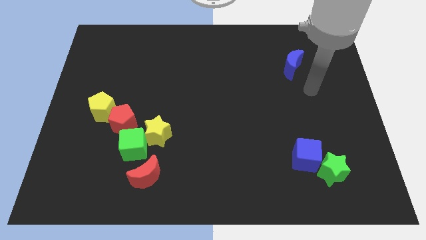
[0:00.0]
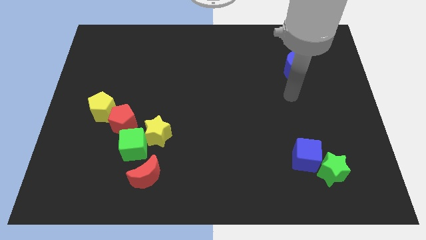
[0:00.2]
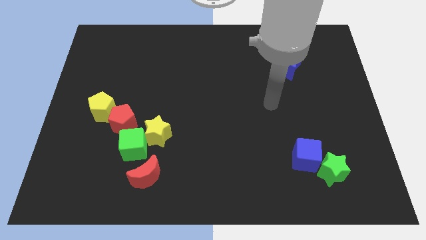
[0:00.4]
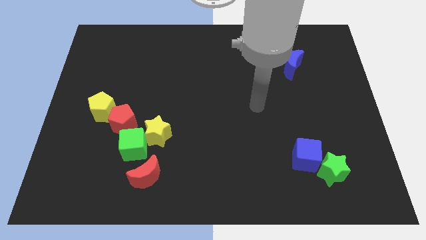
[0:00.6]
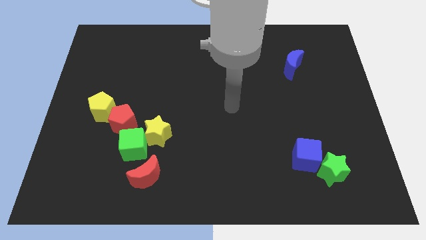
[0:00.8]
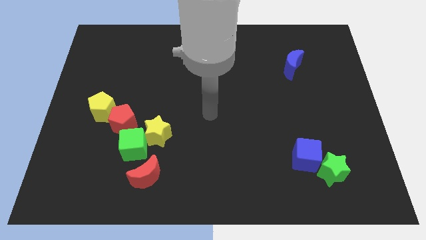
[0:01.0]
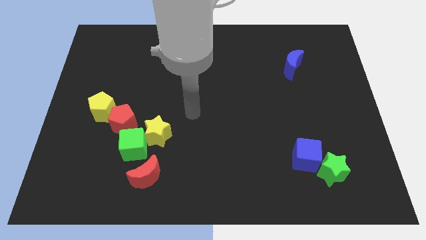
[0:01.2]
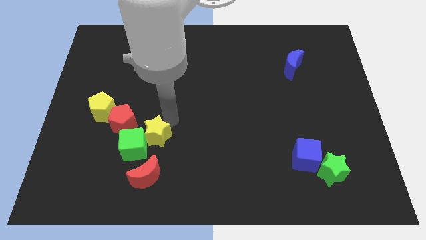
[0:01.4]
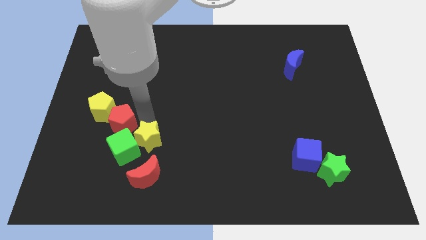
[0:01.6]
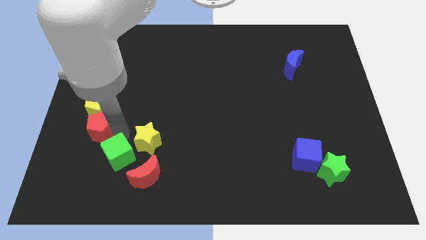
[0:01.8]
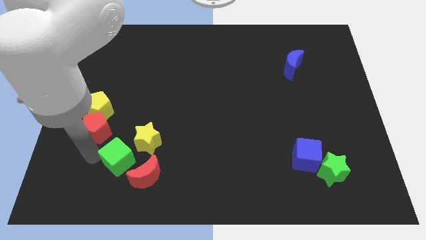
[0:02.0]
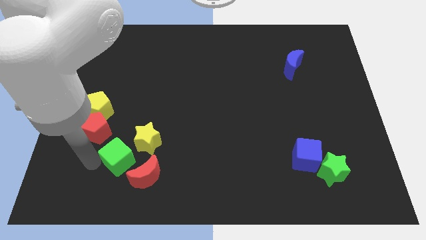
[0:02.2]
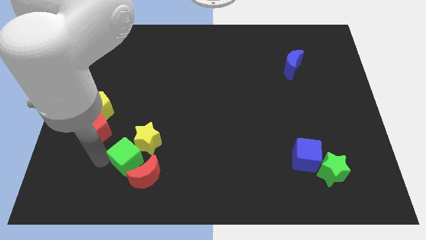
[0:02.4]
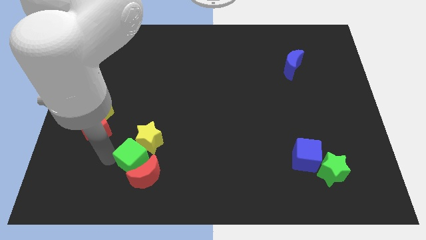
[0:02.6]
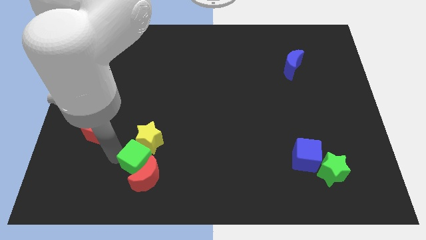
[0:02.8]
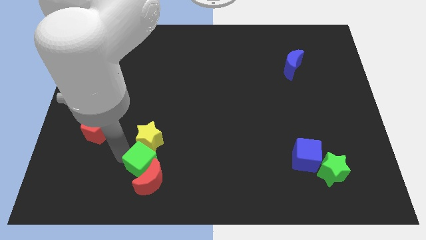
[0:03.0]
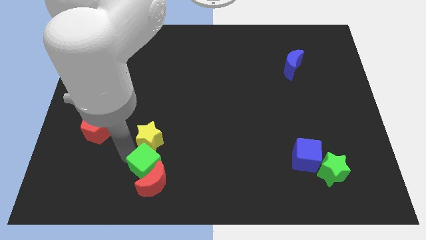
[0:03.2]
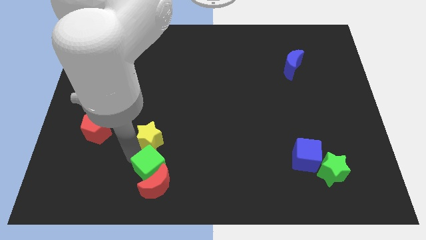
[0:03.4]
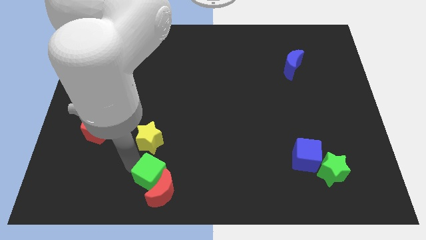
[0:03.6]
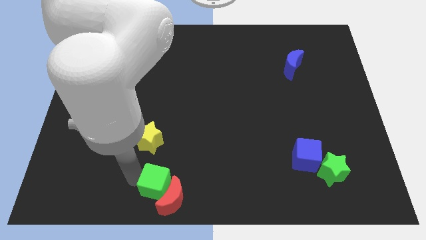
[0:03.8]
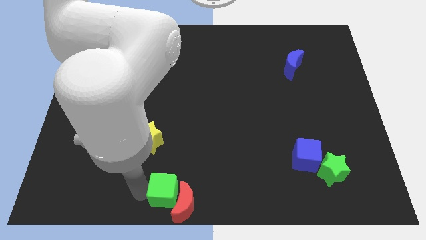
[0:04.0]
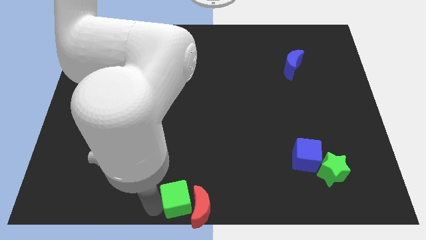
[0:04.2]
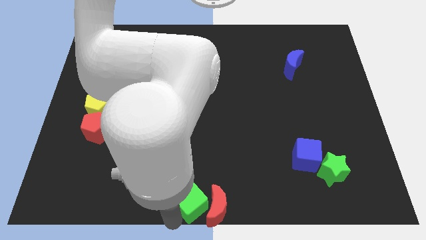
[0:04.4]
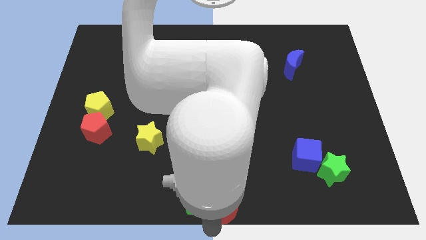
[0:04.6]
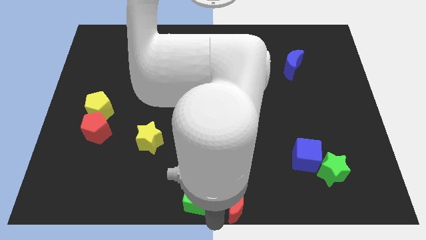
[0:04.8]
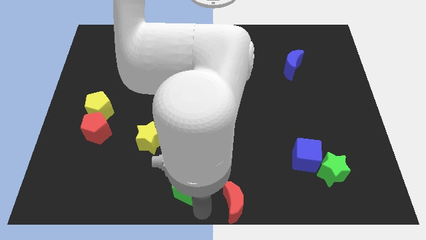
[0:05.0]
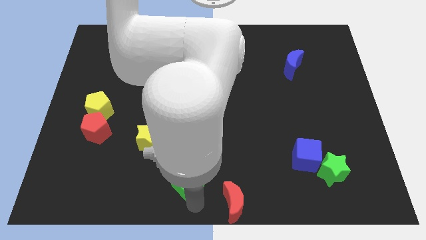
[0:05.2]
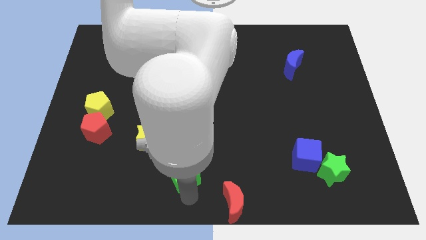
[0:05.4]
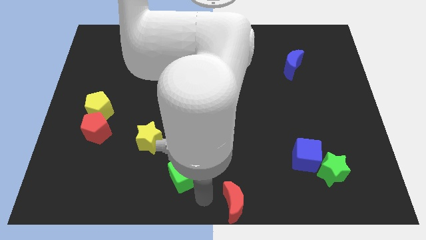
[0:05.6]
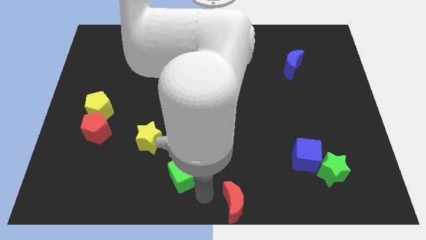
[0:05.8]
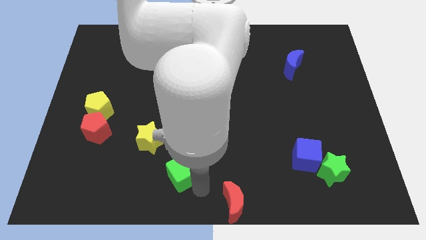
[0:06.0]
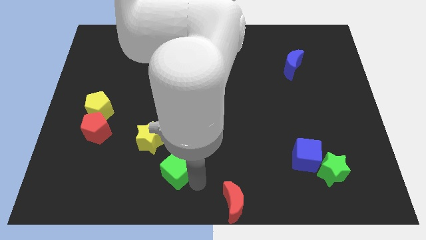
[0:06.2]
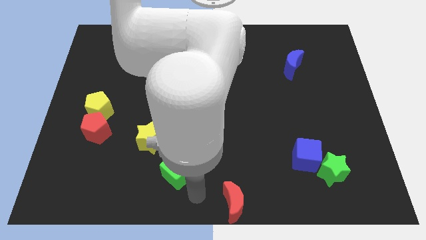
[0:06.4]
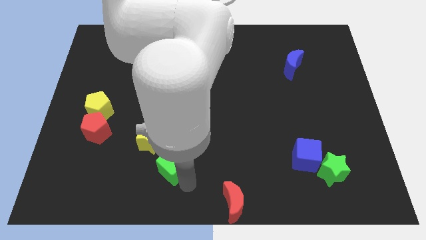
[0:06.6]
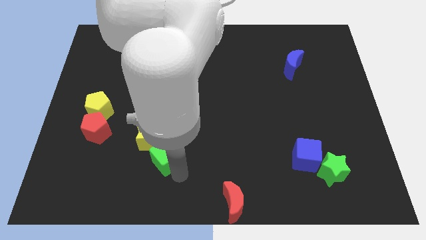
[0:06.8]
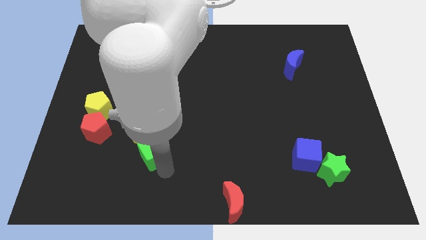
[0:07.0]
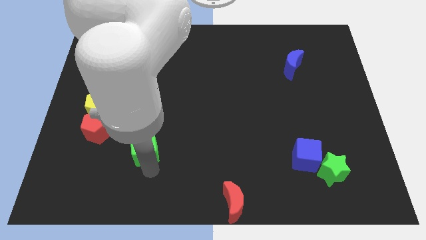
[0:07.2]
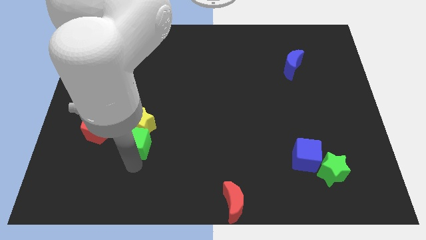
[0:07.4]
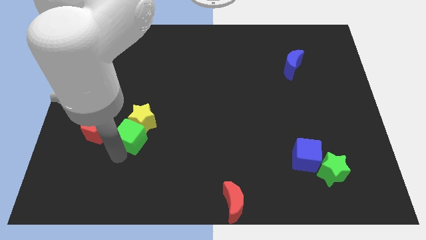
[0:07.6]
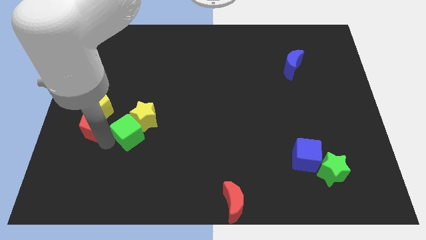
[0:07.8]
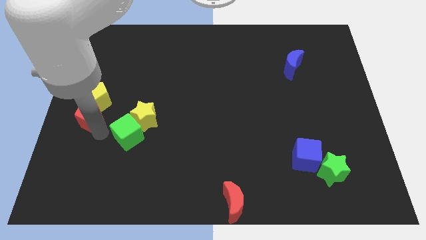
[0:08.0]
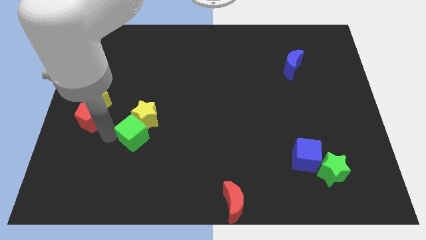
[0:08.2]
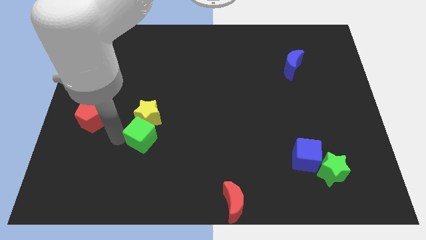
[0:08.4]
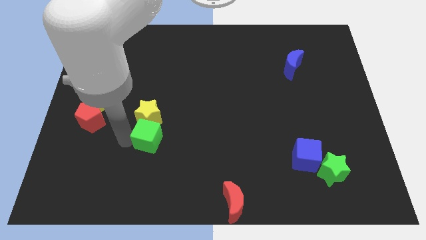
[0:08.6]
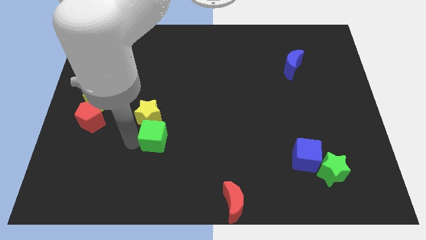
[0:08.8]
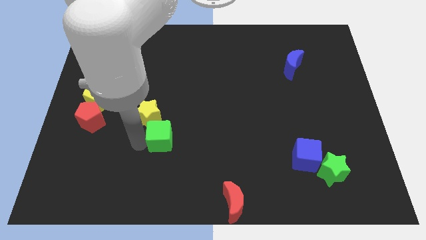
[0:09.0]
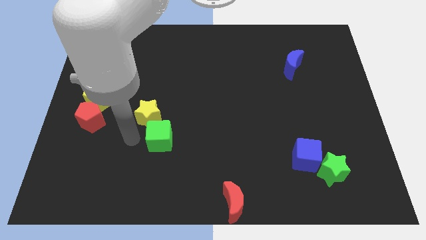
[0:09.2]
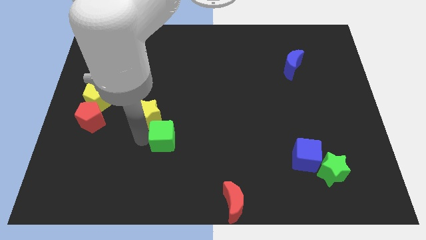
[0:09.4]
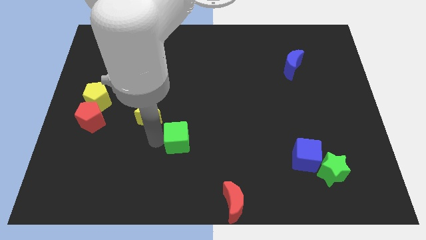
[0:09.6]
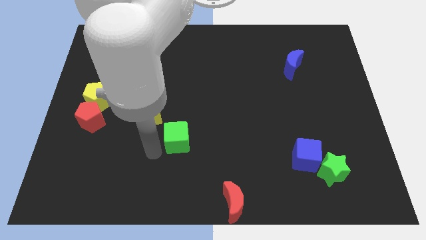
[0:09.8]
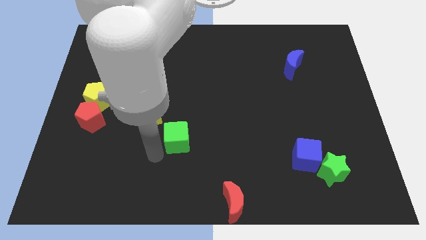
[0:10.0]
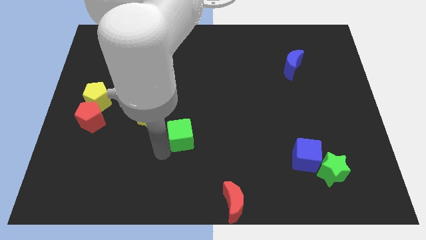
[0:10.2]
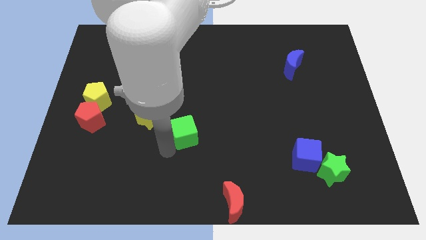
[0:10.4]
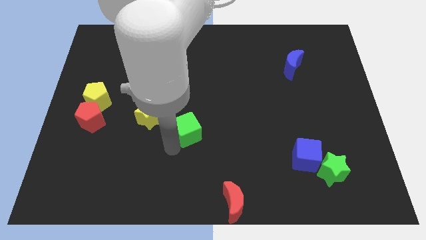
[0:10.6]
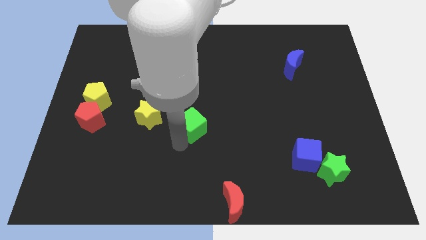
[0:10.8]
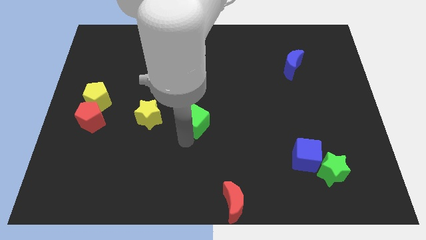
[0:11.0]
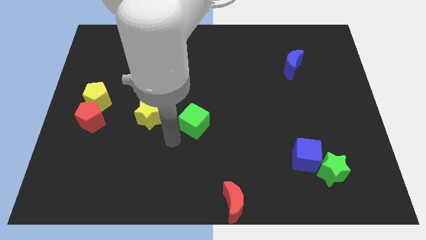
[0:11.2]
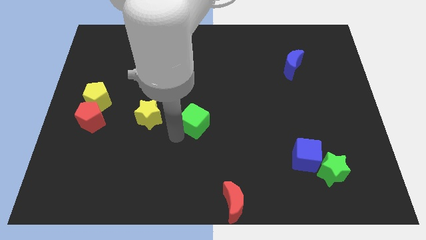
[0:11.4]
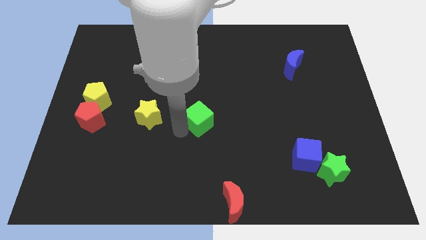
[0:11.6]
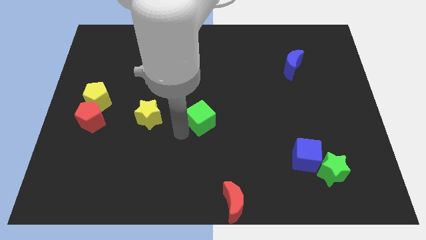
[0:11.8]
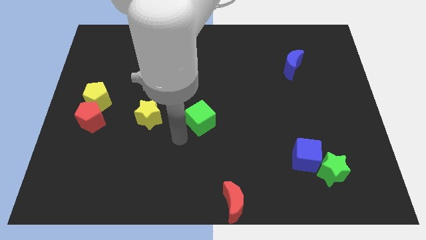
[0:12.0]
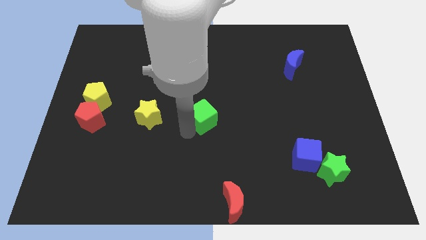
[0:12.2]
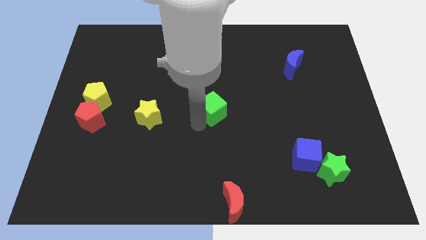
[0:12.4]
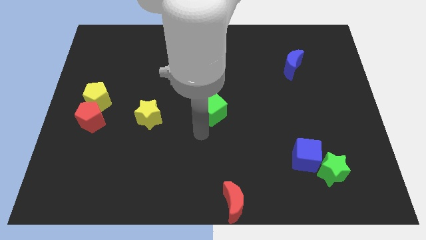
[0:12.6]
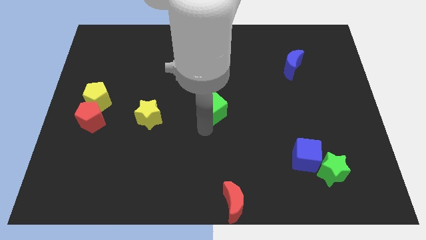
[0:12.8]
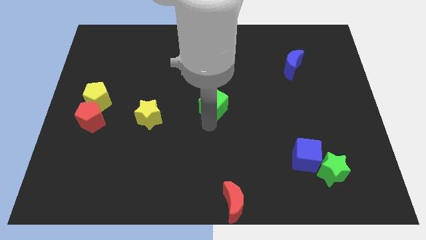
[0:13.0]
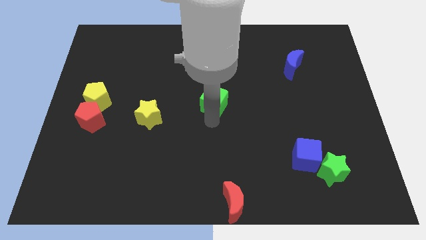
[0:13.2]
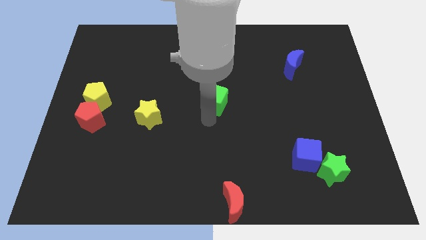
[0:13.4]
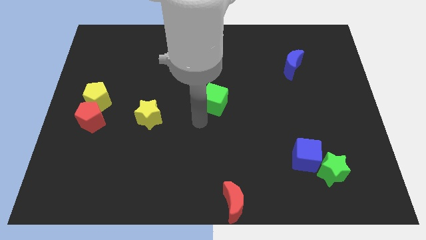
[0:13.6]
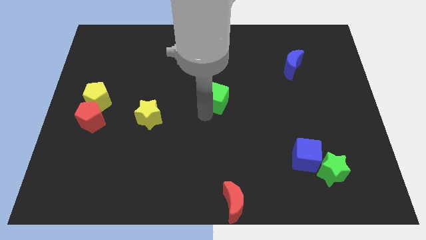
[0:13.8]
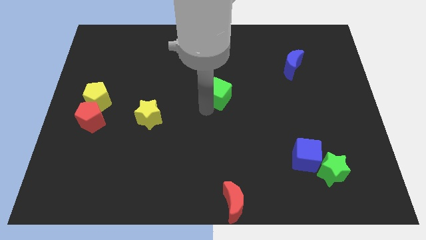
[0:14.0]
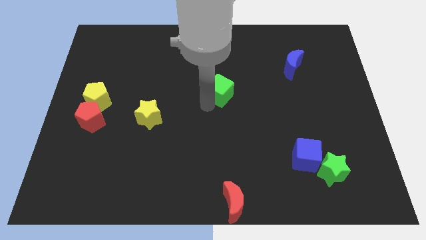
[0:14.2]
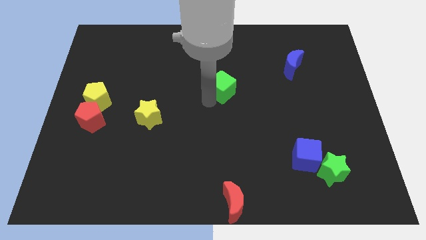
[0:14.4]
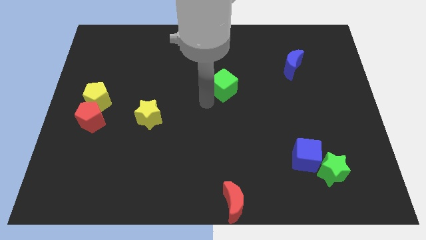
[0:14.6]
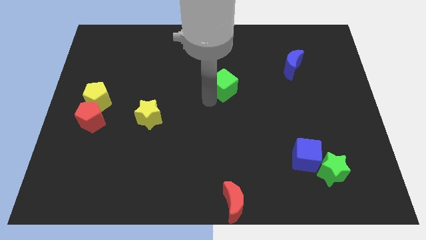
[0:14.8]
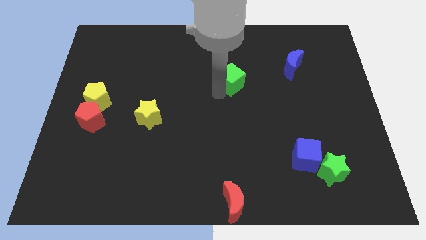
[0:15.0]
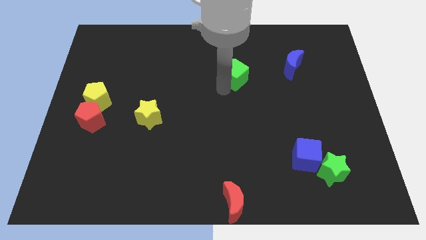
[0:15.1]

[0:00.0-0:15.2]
push the green cube to the left of the blue moon

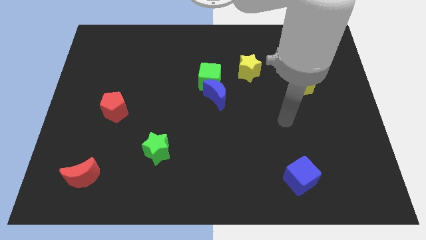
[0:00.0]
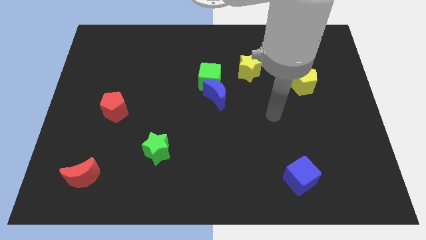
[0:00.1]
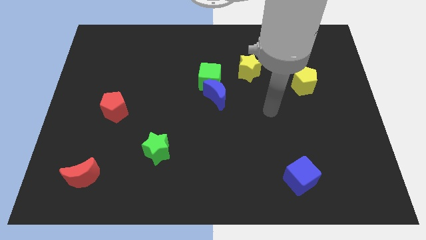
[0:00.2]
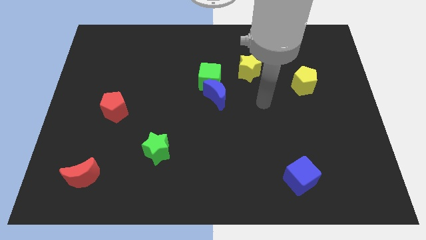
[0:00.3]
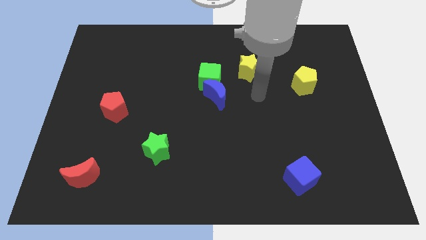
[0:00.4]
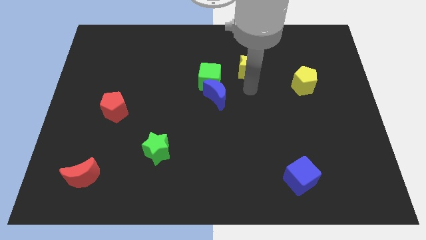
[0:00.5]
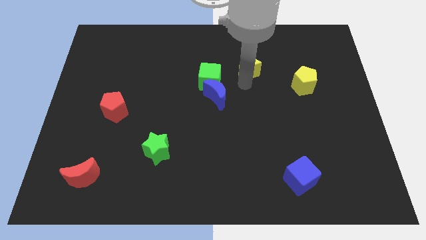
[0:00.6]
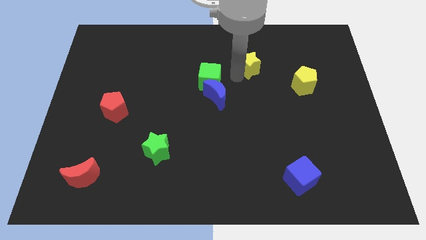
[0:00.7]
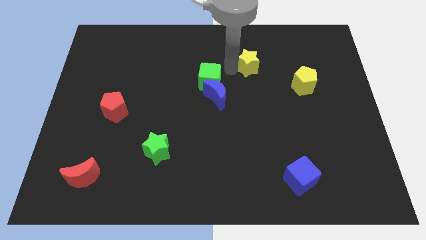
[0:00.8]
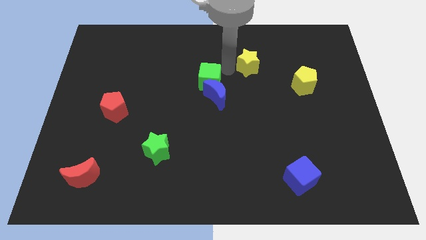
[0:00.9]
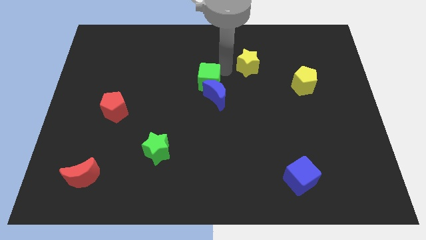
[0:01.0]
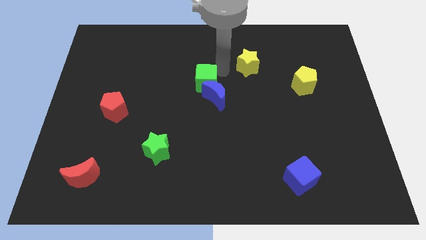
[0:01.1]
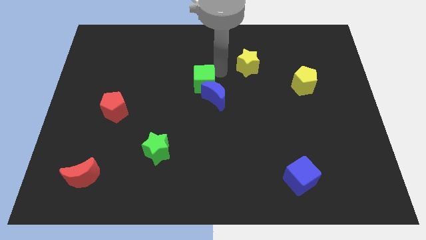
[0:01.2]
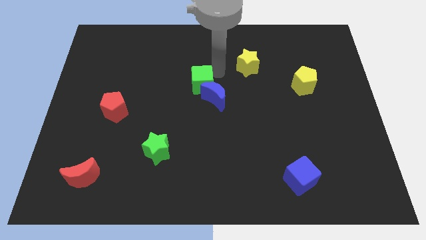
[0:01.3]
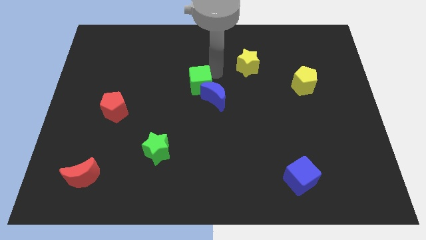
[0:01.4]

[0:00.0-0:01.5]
slide the green cube to the left of the blue moon
